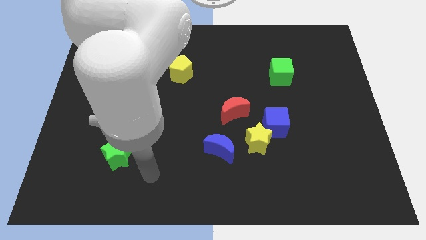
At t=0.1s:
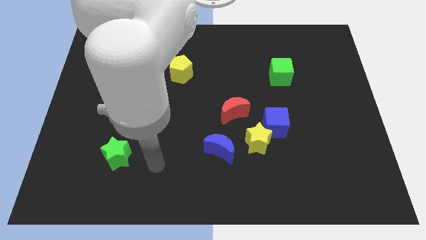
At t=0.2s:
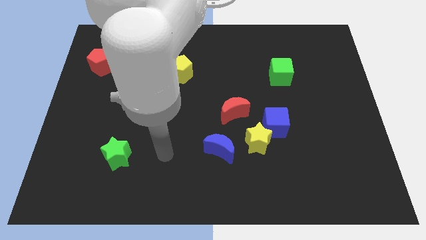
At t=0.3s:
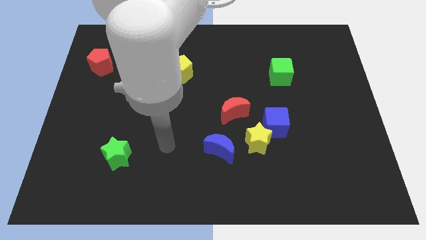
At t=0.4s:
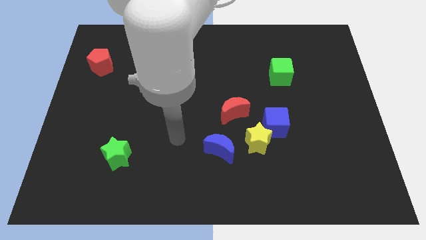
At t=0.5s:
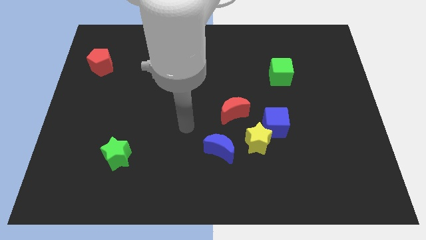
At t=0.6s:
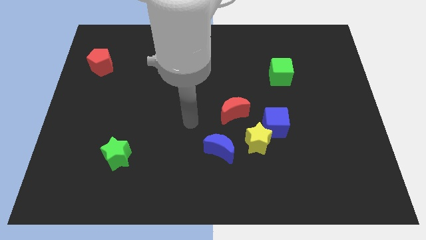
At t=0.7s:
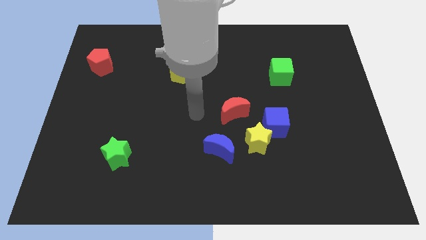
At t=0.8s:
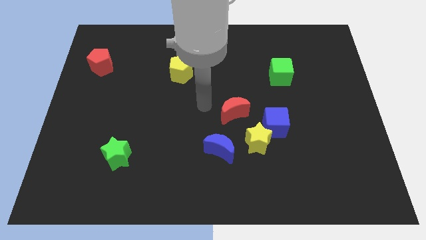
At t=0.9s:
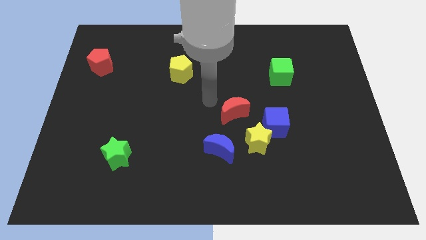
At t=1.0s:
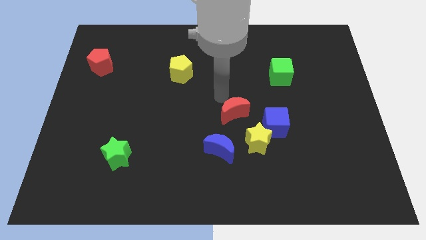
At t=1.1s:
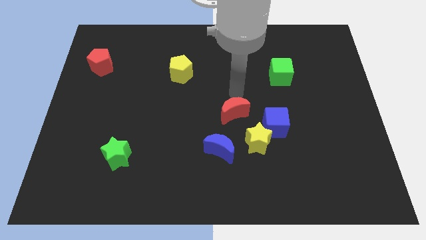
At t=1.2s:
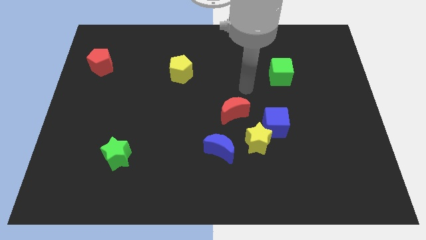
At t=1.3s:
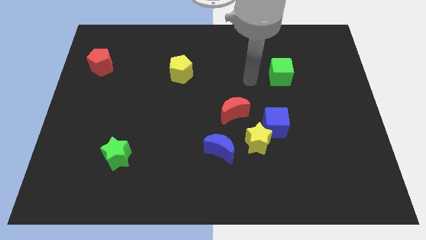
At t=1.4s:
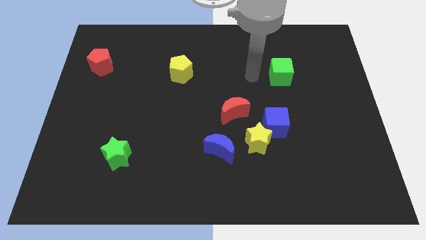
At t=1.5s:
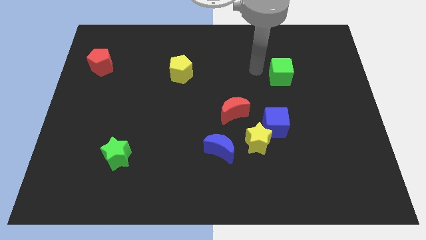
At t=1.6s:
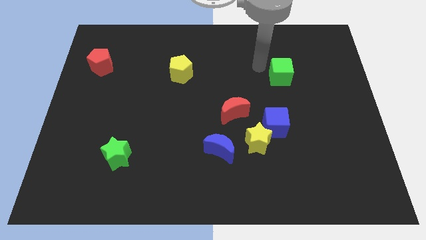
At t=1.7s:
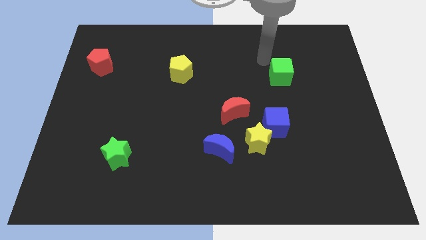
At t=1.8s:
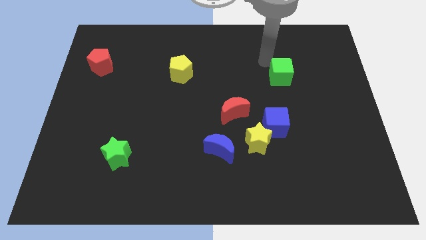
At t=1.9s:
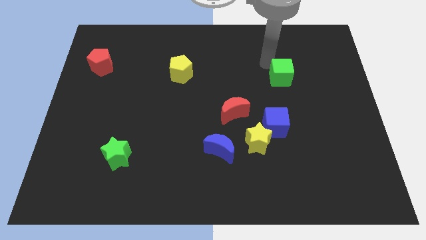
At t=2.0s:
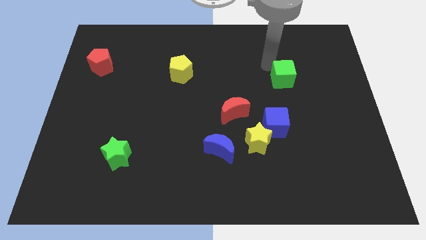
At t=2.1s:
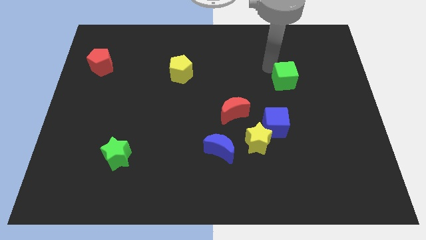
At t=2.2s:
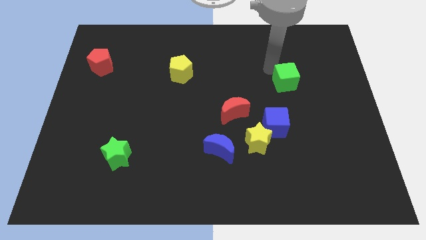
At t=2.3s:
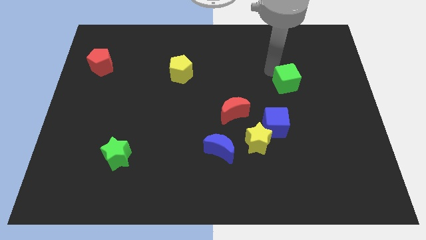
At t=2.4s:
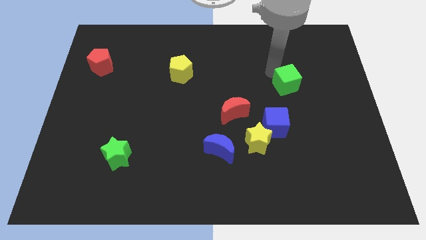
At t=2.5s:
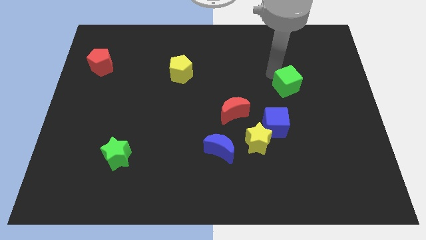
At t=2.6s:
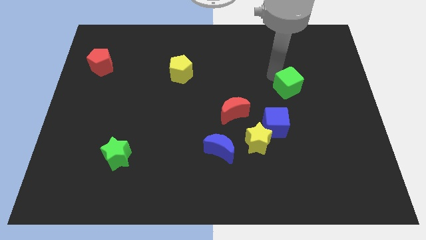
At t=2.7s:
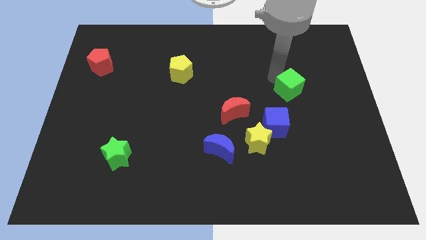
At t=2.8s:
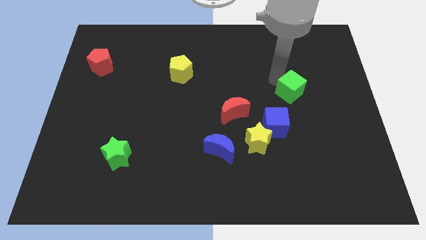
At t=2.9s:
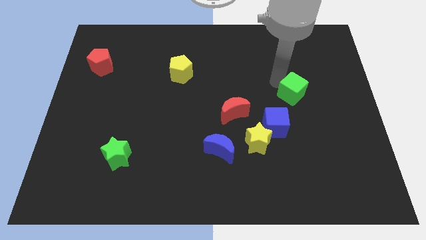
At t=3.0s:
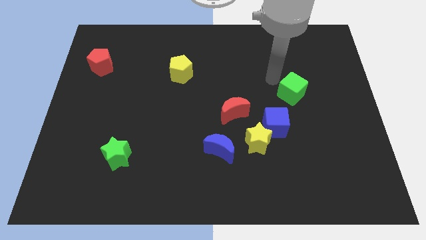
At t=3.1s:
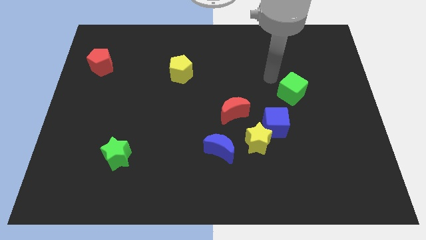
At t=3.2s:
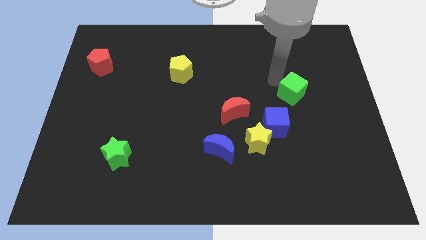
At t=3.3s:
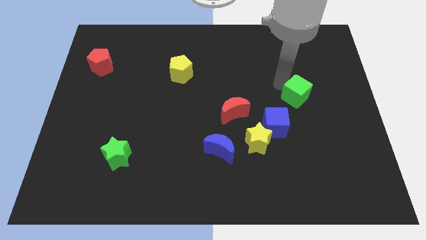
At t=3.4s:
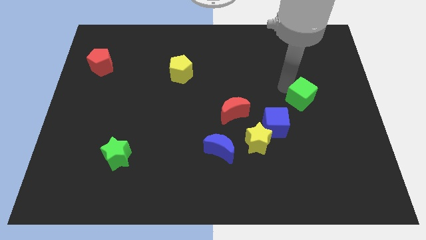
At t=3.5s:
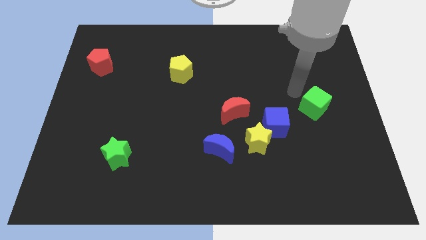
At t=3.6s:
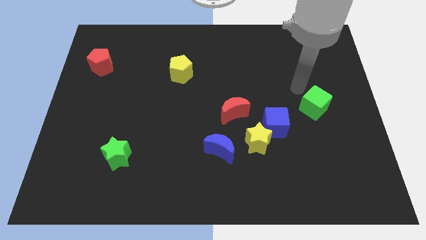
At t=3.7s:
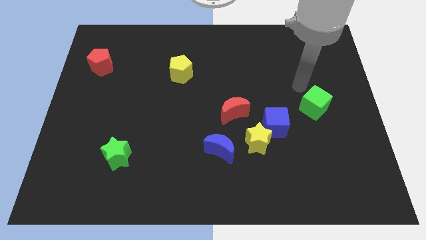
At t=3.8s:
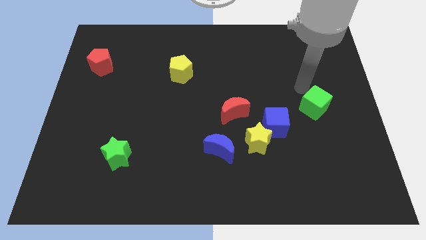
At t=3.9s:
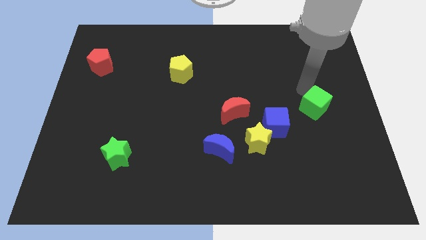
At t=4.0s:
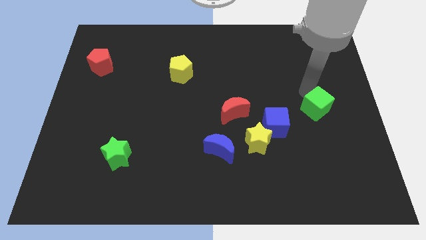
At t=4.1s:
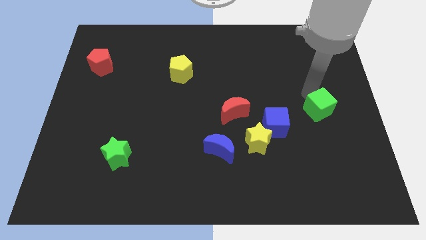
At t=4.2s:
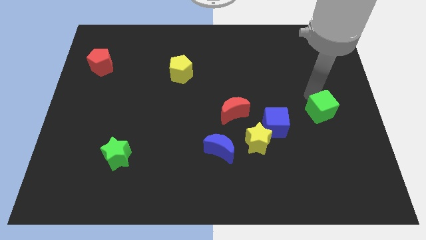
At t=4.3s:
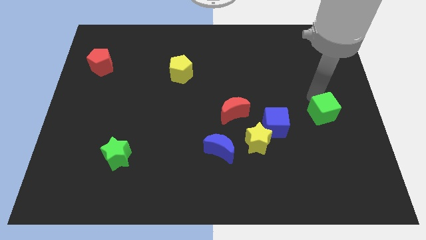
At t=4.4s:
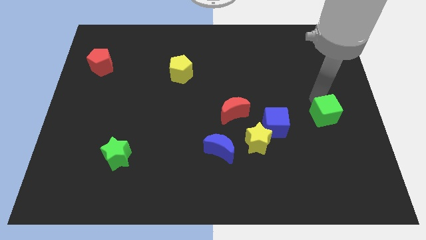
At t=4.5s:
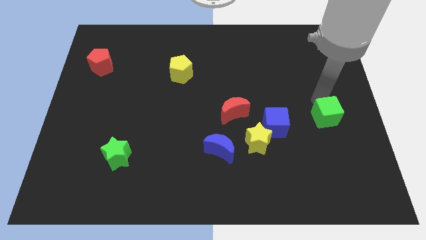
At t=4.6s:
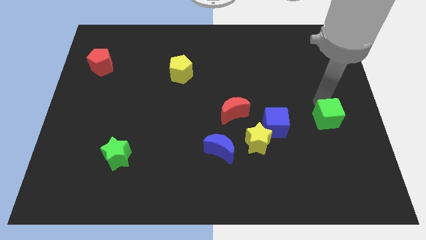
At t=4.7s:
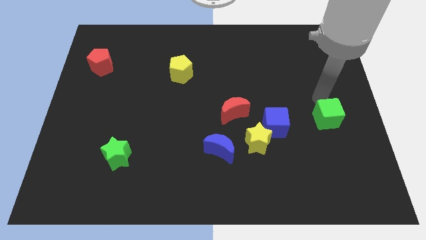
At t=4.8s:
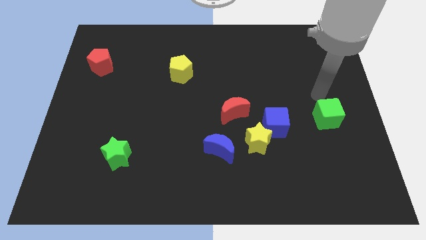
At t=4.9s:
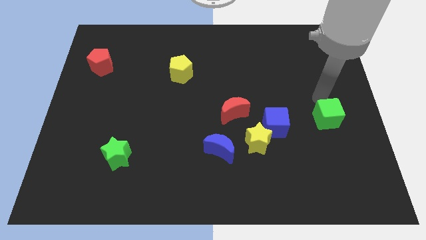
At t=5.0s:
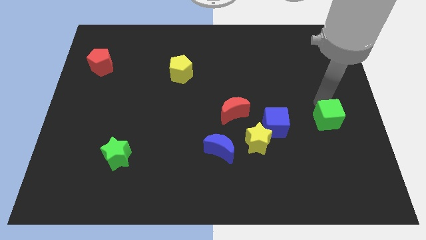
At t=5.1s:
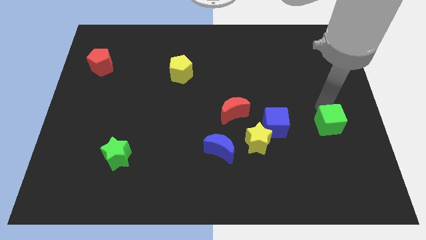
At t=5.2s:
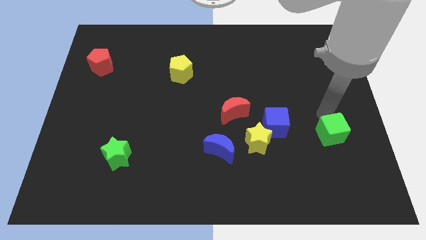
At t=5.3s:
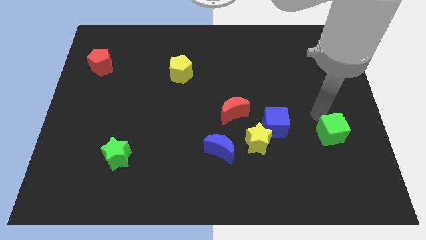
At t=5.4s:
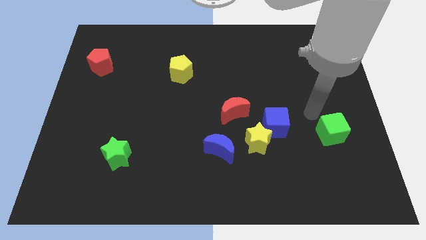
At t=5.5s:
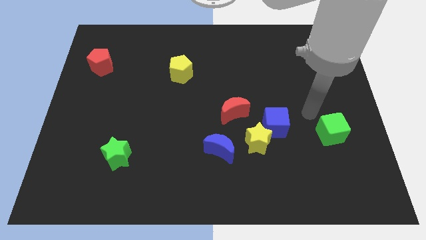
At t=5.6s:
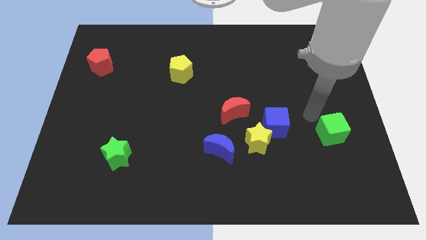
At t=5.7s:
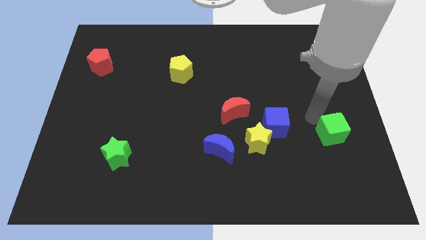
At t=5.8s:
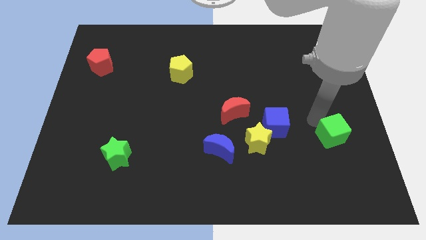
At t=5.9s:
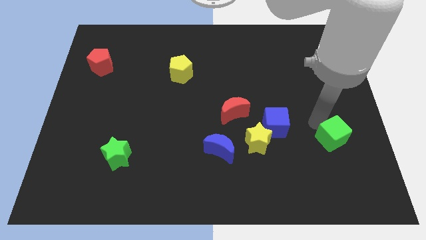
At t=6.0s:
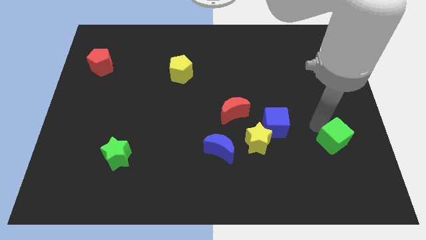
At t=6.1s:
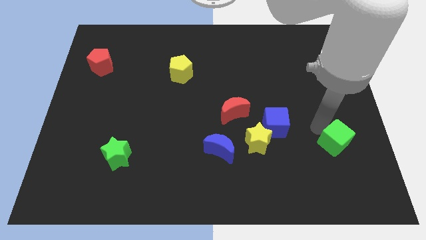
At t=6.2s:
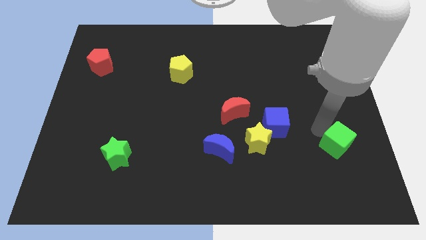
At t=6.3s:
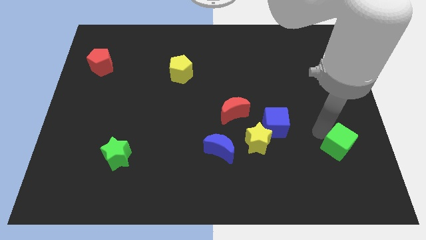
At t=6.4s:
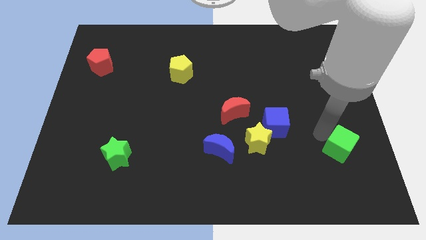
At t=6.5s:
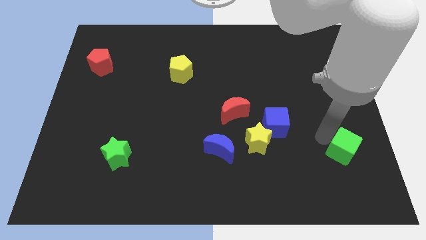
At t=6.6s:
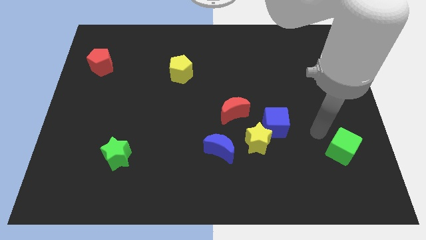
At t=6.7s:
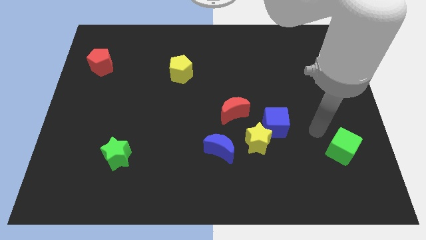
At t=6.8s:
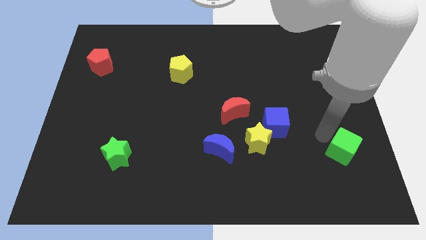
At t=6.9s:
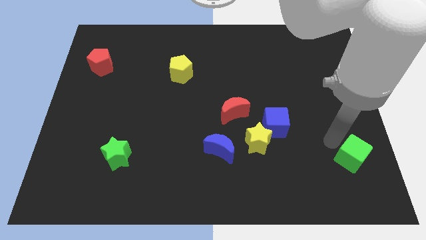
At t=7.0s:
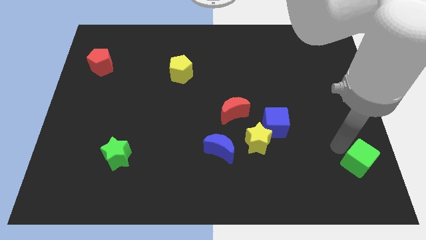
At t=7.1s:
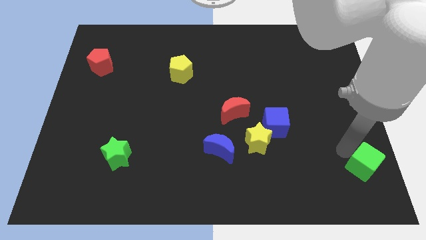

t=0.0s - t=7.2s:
push the green cube to the lower right corner
